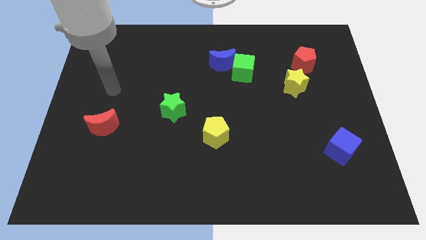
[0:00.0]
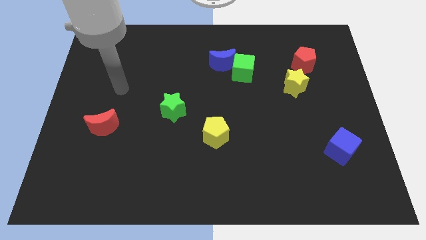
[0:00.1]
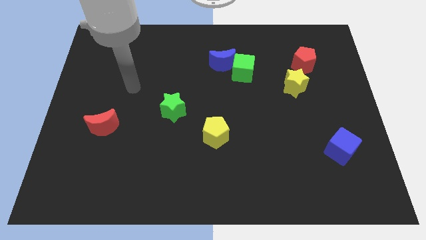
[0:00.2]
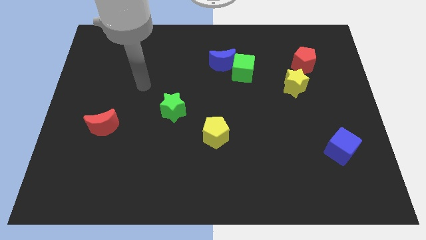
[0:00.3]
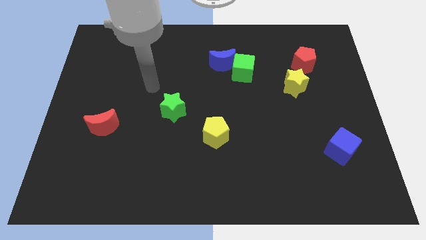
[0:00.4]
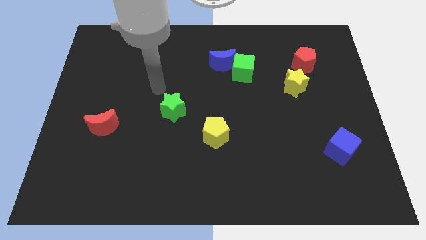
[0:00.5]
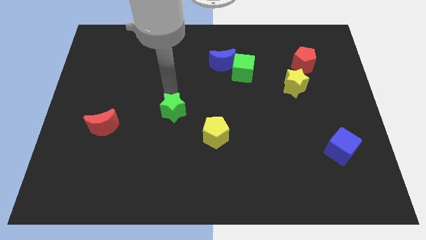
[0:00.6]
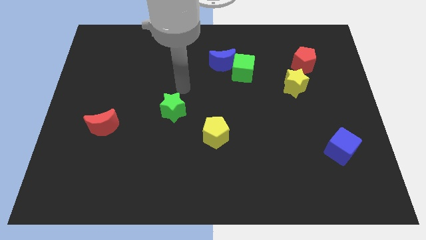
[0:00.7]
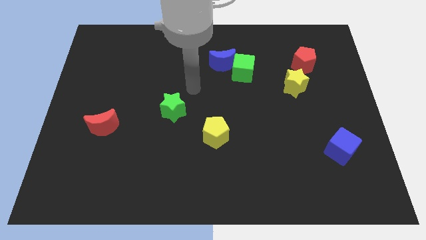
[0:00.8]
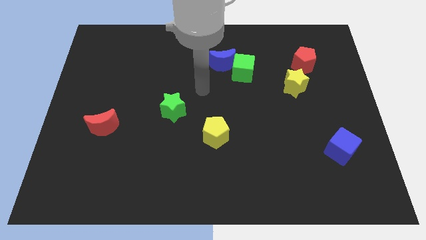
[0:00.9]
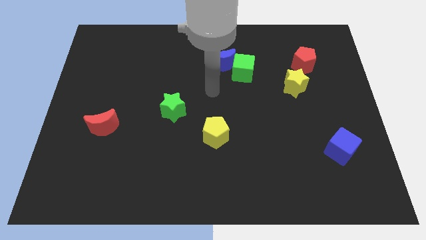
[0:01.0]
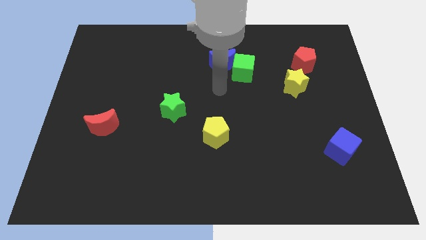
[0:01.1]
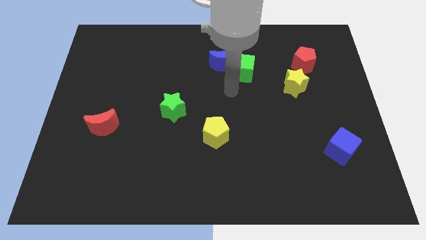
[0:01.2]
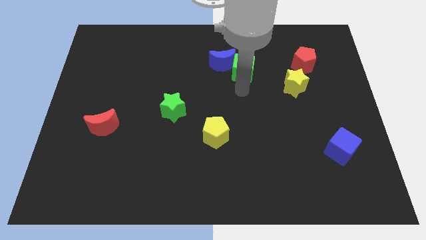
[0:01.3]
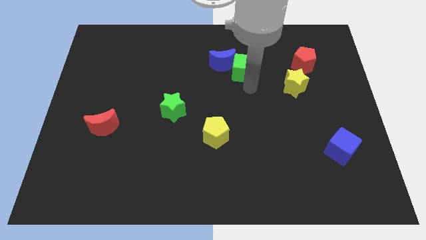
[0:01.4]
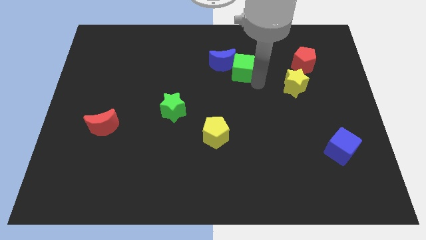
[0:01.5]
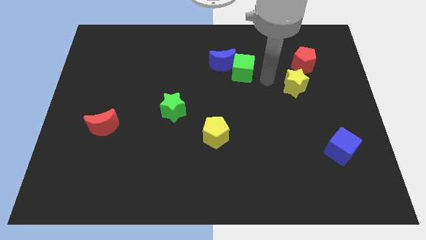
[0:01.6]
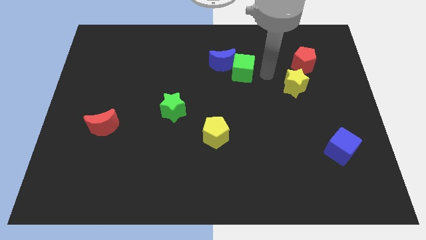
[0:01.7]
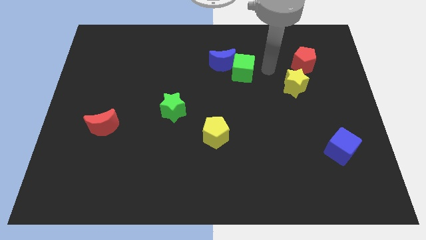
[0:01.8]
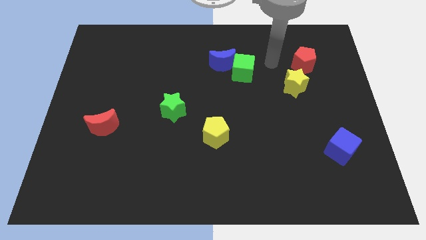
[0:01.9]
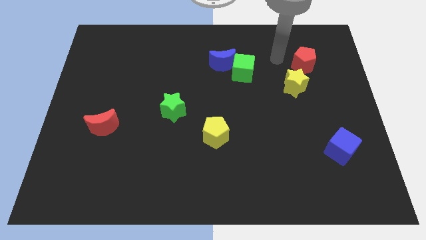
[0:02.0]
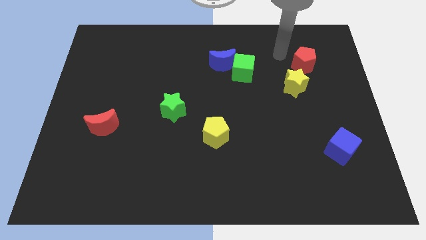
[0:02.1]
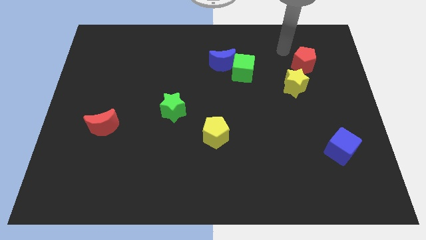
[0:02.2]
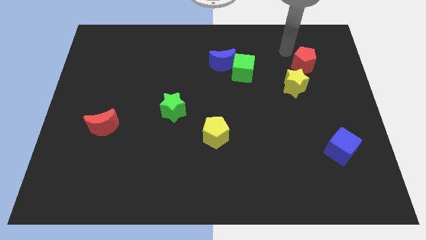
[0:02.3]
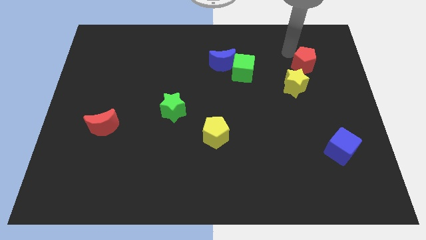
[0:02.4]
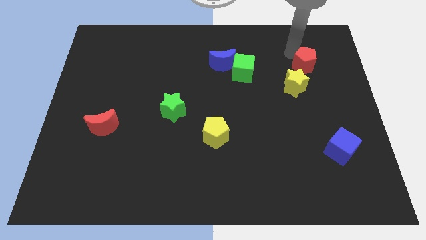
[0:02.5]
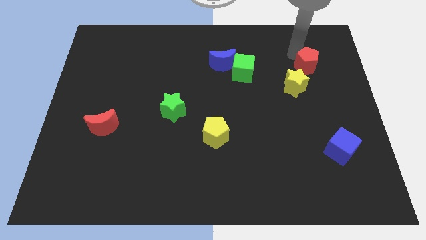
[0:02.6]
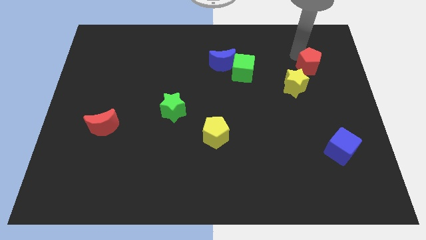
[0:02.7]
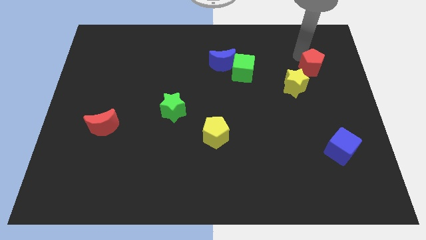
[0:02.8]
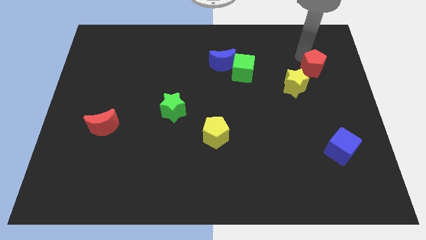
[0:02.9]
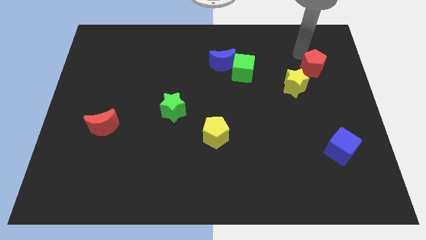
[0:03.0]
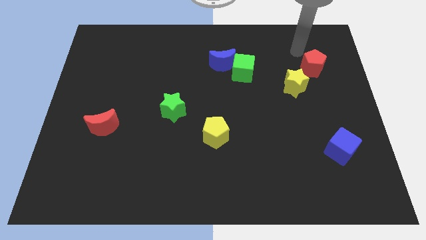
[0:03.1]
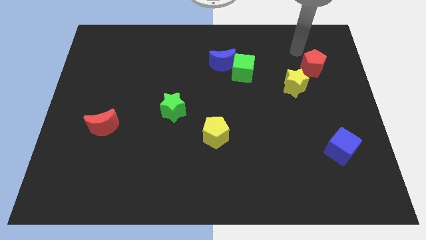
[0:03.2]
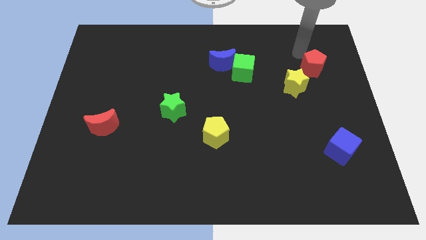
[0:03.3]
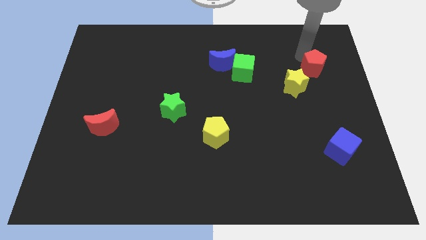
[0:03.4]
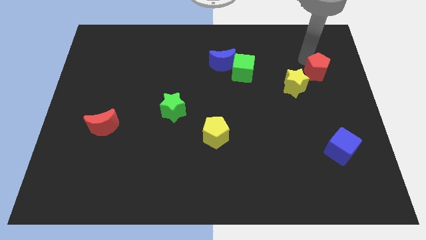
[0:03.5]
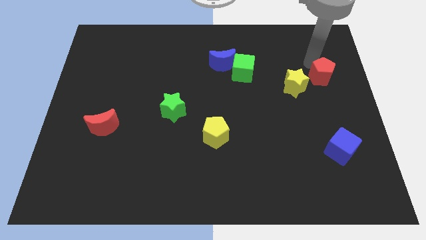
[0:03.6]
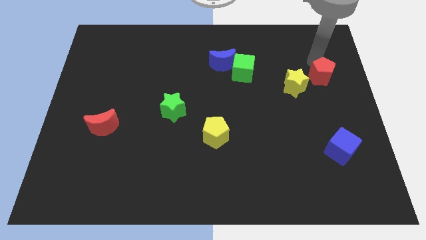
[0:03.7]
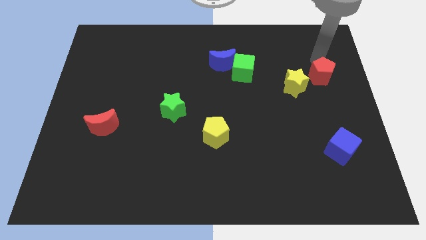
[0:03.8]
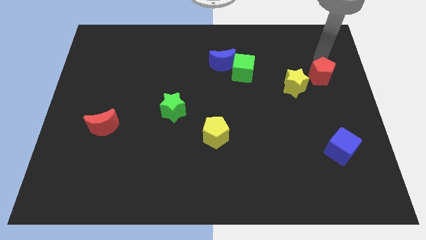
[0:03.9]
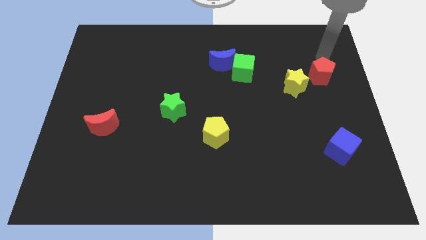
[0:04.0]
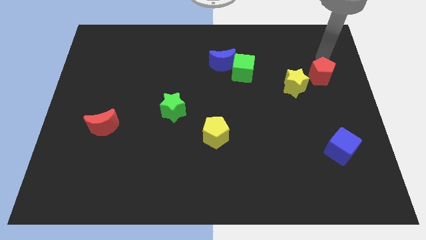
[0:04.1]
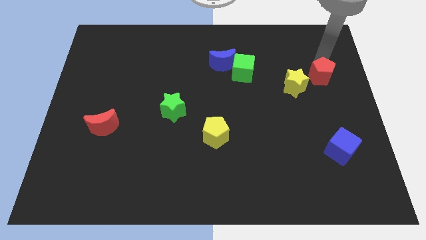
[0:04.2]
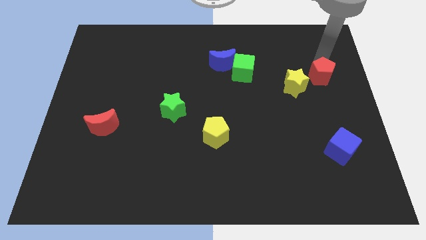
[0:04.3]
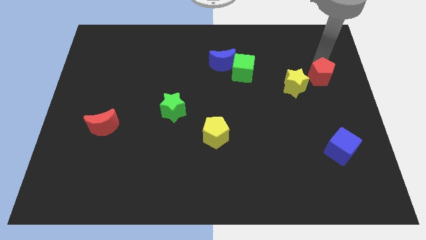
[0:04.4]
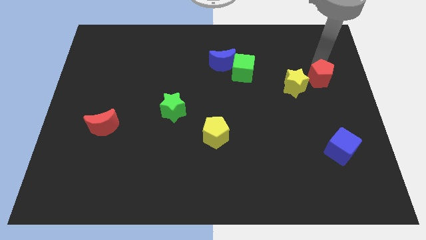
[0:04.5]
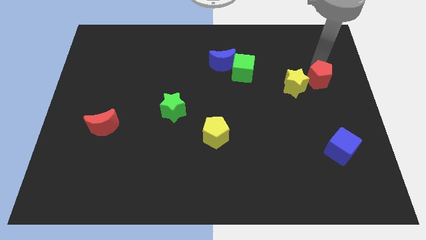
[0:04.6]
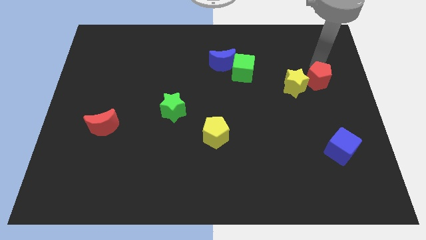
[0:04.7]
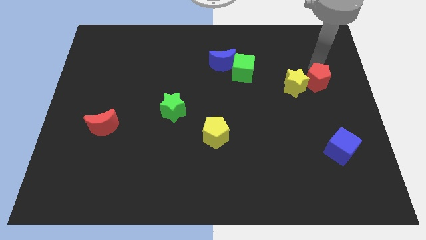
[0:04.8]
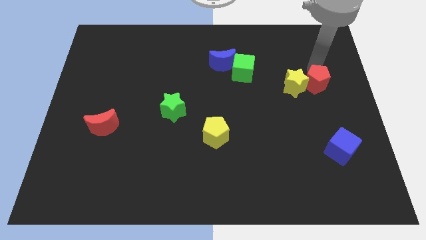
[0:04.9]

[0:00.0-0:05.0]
push the red pentagon diagonally down and to the right of the yellow star

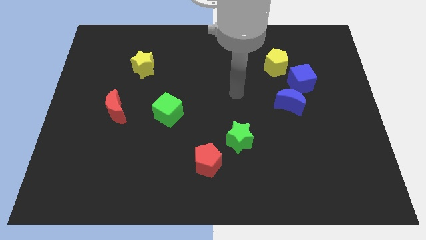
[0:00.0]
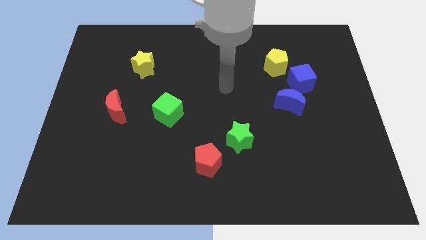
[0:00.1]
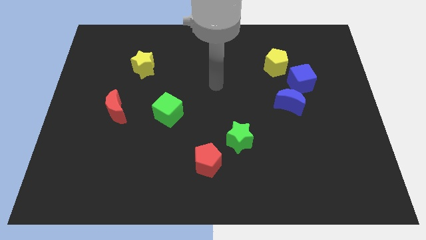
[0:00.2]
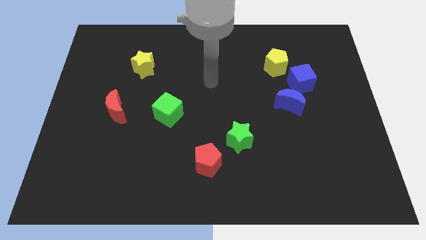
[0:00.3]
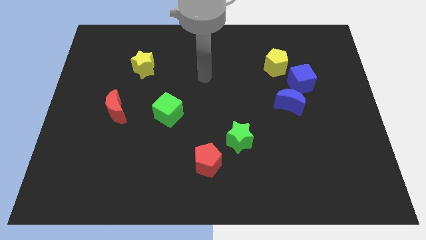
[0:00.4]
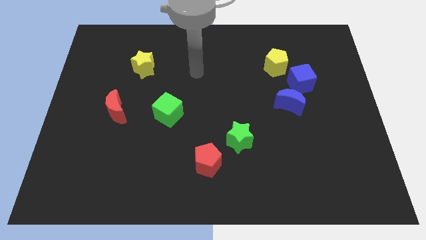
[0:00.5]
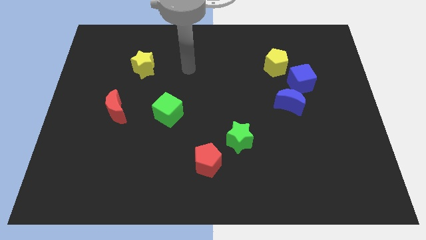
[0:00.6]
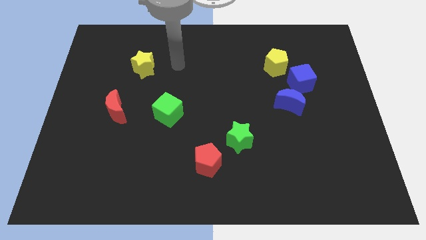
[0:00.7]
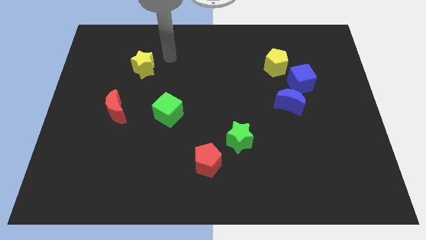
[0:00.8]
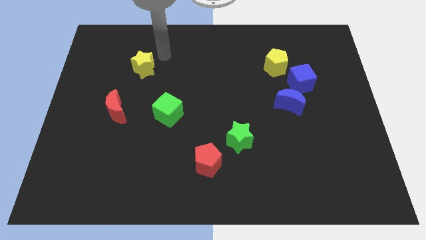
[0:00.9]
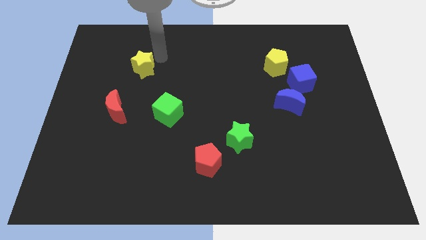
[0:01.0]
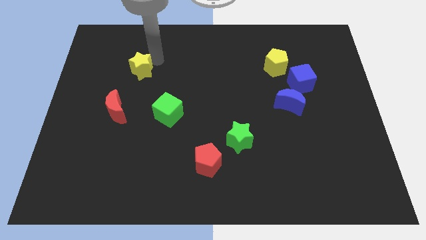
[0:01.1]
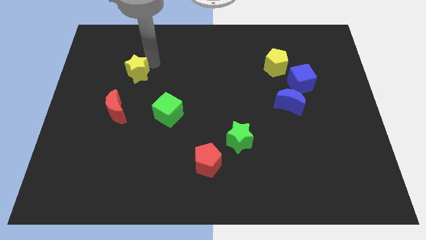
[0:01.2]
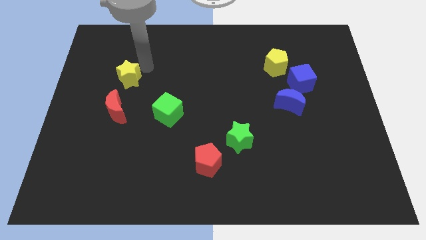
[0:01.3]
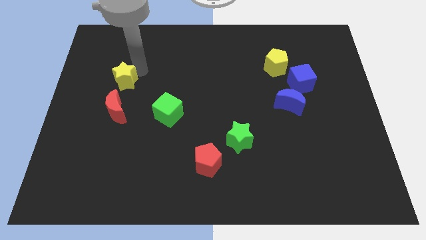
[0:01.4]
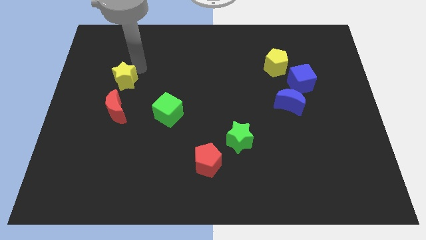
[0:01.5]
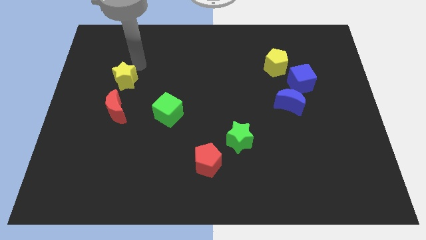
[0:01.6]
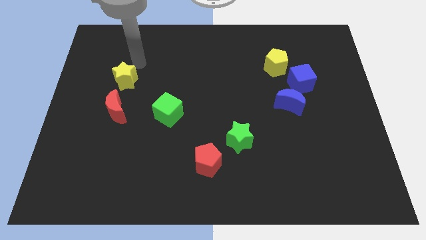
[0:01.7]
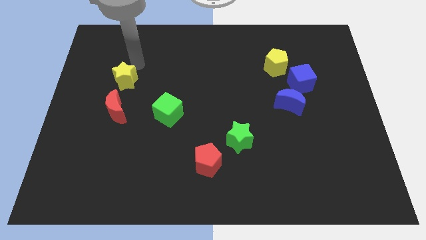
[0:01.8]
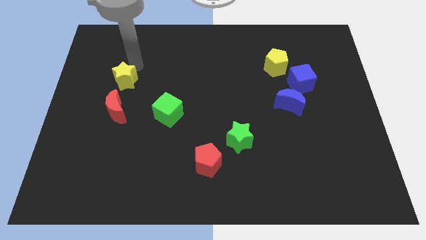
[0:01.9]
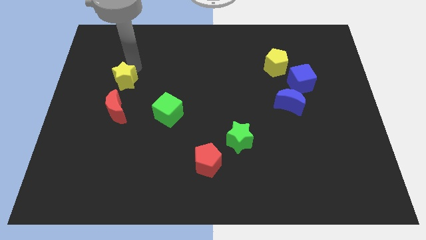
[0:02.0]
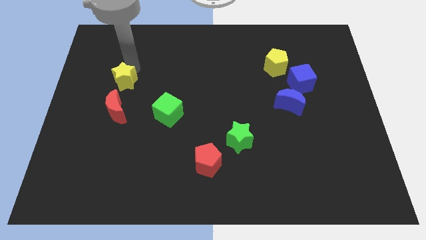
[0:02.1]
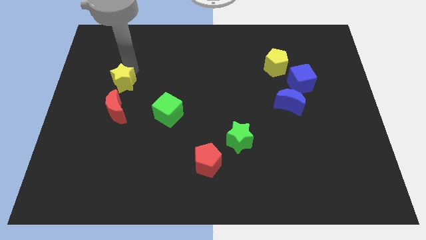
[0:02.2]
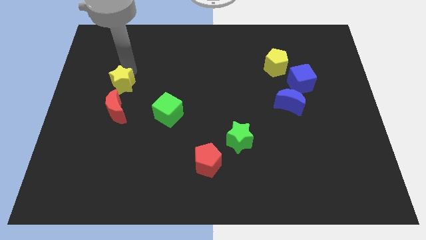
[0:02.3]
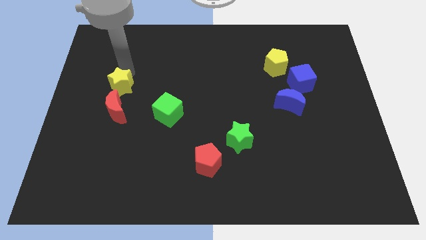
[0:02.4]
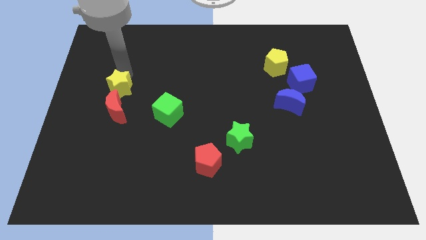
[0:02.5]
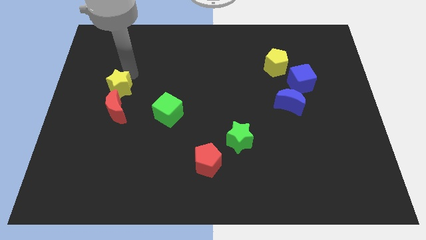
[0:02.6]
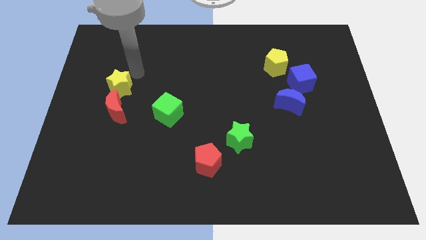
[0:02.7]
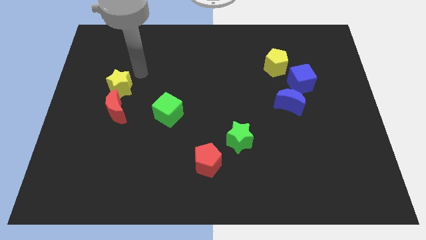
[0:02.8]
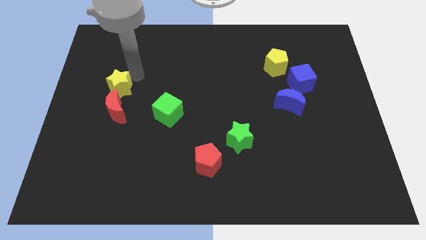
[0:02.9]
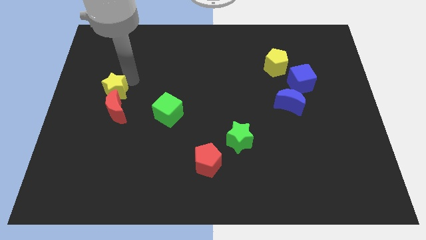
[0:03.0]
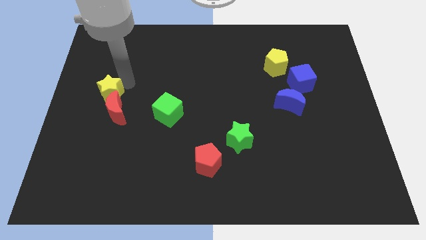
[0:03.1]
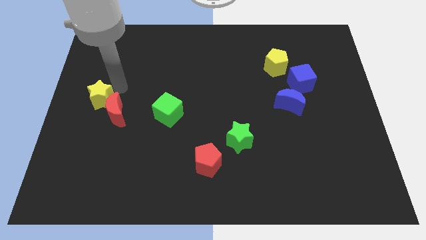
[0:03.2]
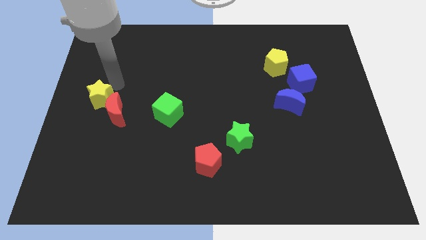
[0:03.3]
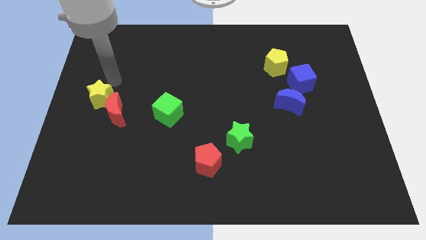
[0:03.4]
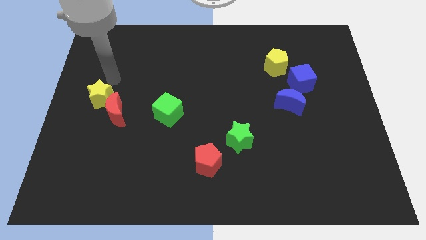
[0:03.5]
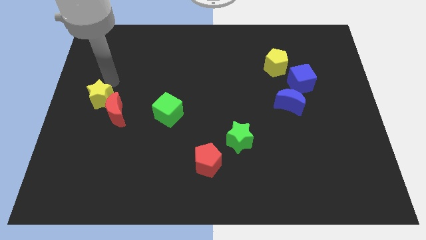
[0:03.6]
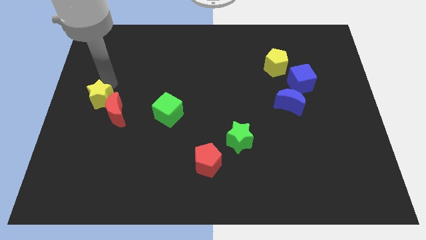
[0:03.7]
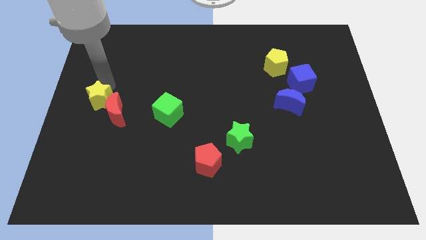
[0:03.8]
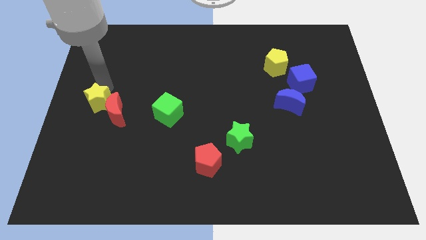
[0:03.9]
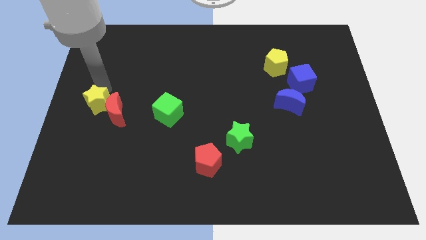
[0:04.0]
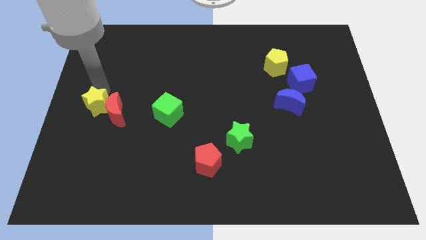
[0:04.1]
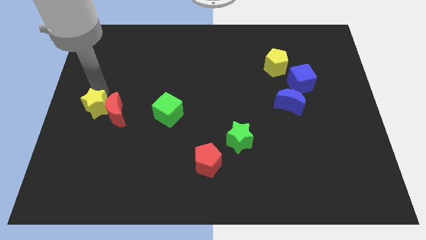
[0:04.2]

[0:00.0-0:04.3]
move the yellow star diagonally down and to the left of the red moon
